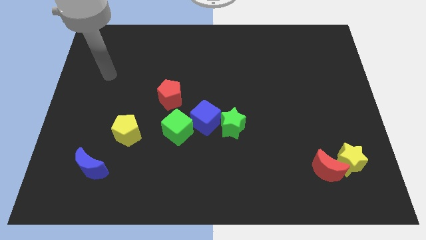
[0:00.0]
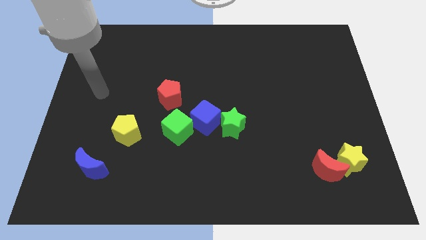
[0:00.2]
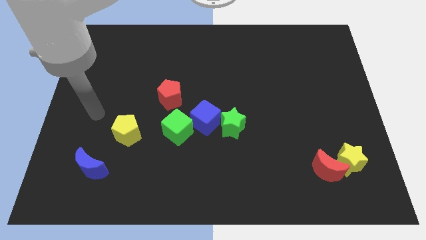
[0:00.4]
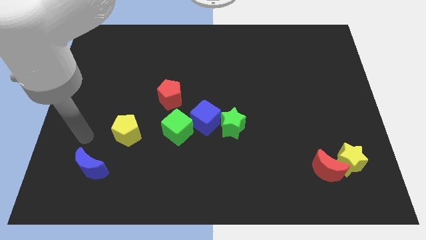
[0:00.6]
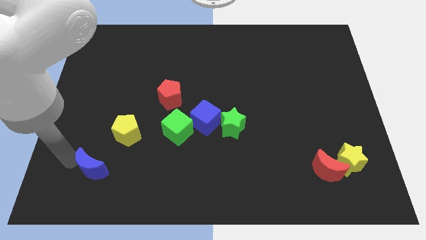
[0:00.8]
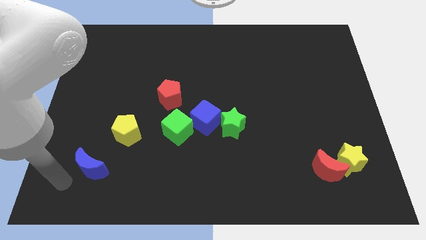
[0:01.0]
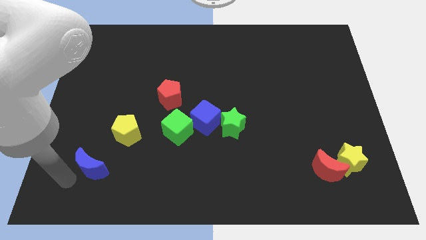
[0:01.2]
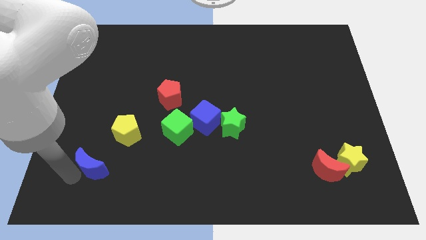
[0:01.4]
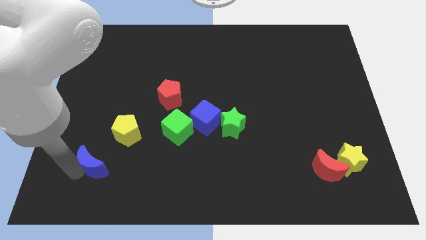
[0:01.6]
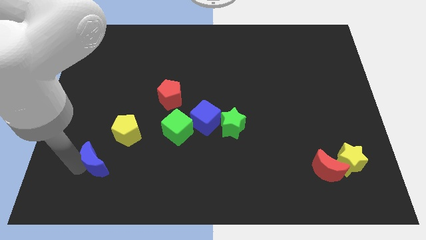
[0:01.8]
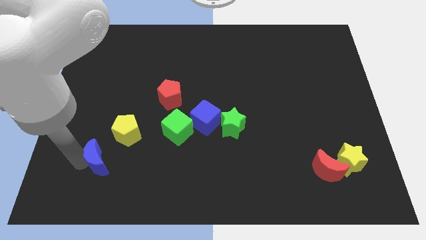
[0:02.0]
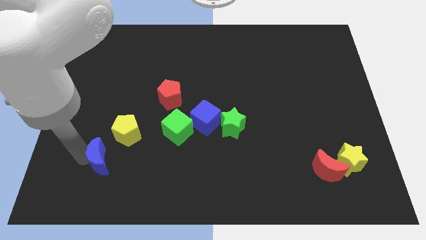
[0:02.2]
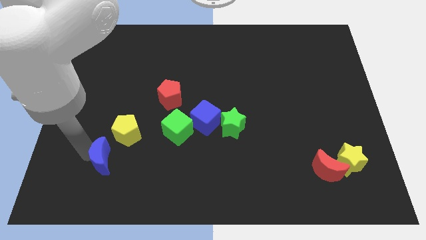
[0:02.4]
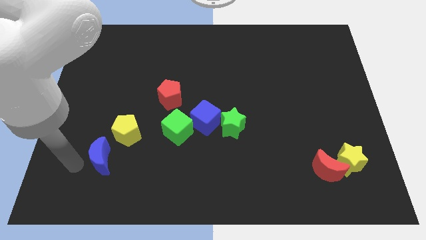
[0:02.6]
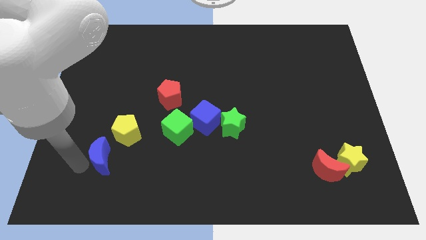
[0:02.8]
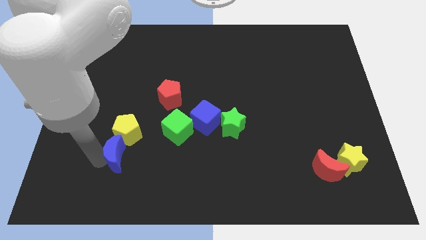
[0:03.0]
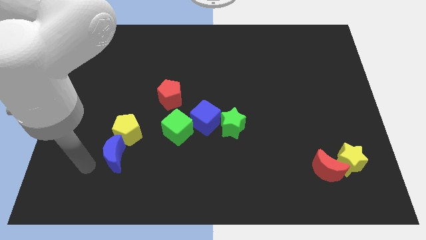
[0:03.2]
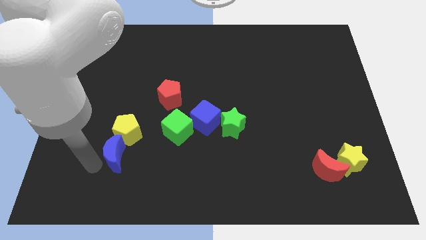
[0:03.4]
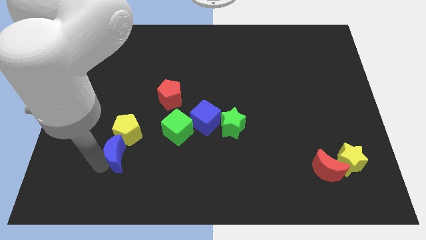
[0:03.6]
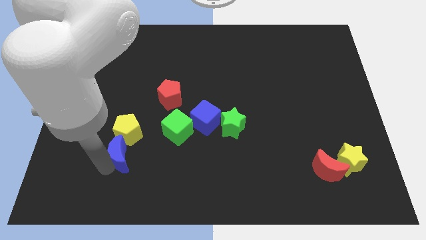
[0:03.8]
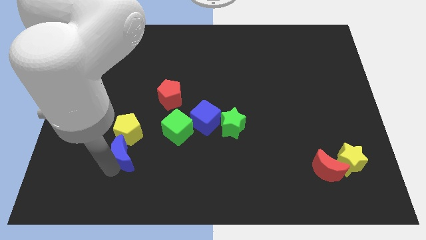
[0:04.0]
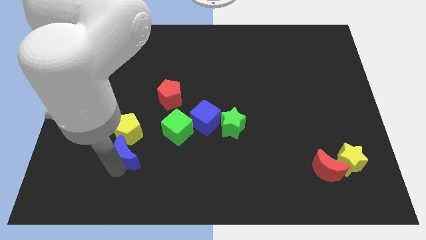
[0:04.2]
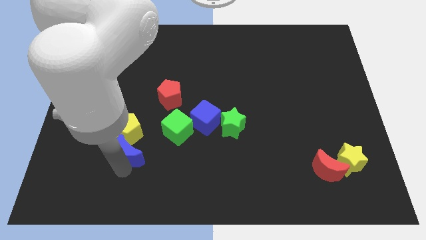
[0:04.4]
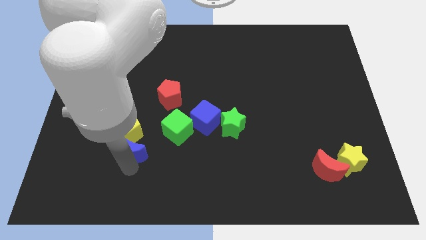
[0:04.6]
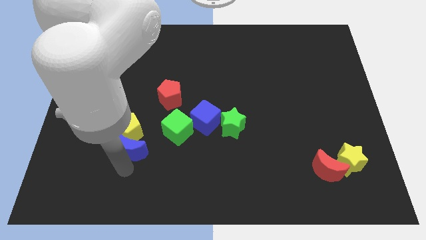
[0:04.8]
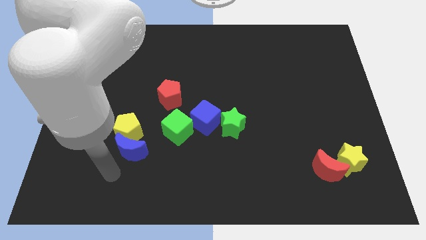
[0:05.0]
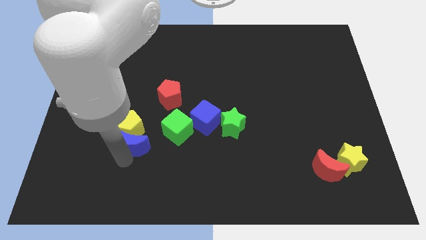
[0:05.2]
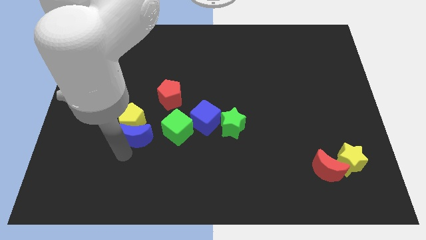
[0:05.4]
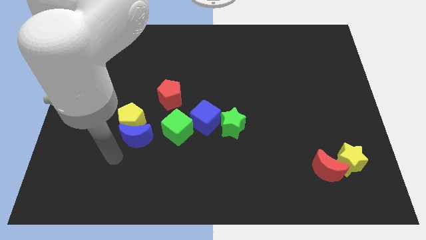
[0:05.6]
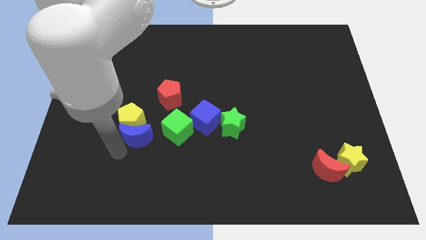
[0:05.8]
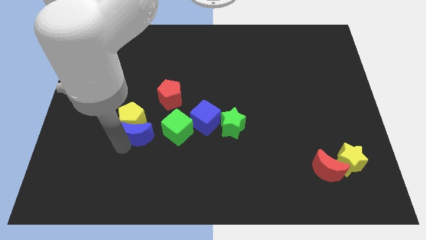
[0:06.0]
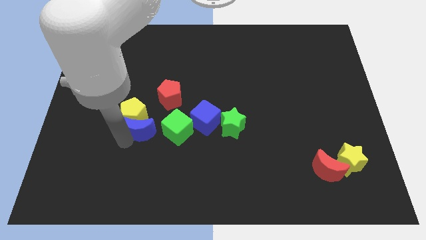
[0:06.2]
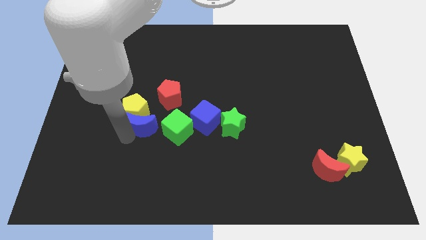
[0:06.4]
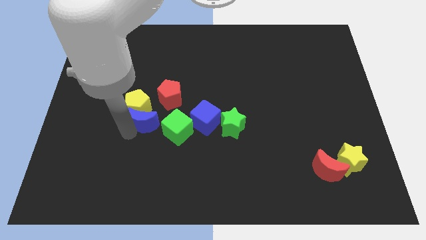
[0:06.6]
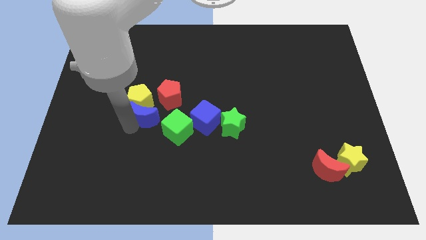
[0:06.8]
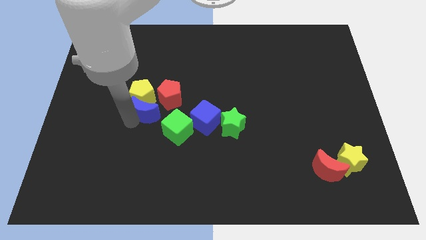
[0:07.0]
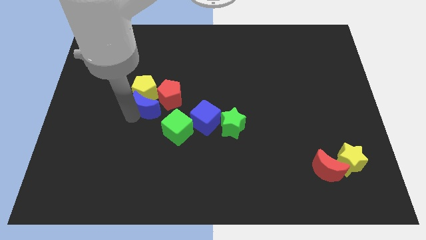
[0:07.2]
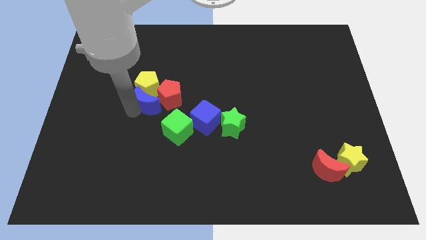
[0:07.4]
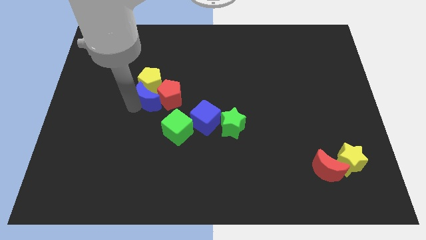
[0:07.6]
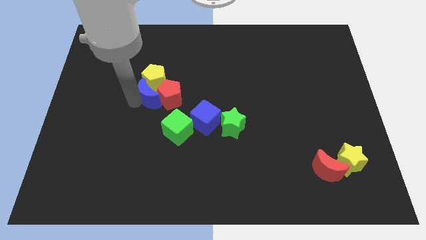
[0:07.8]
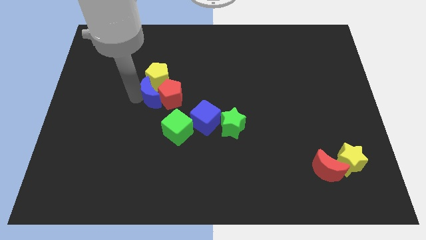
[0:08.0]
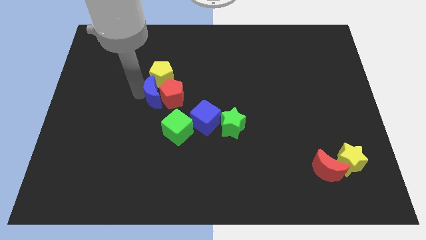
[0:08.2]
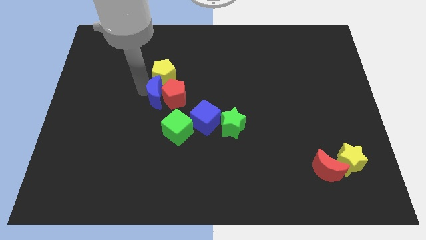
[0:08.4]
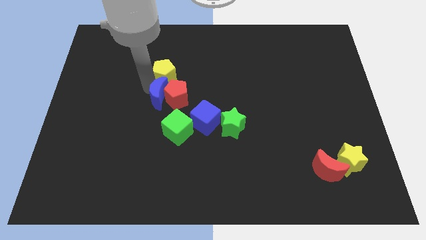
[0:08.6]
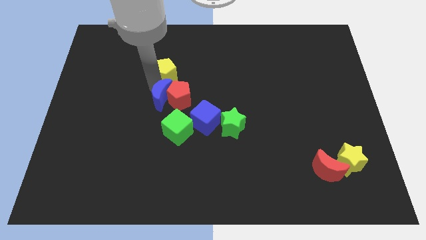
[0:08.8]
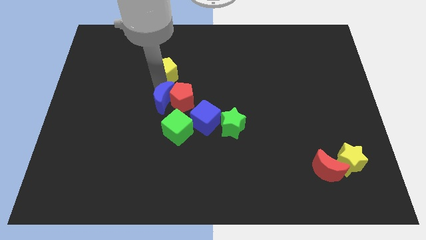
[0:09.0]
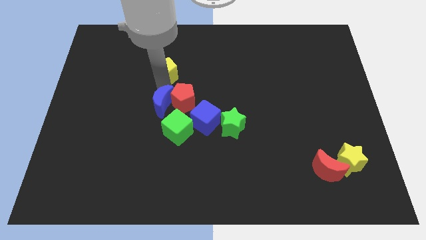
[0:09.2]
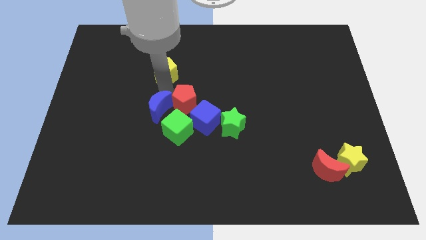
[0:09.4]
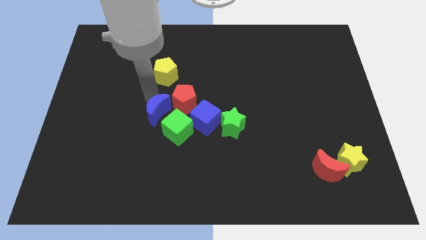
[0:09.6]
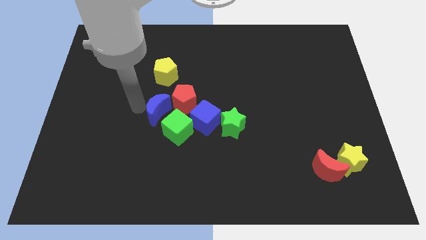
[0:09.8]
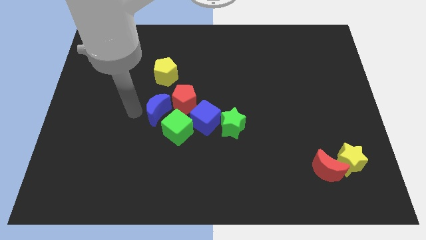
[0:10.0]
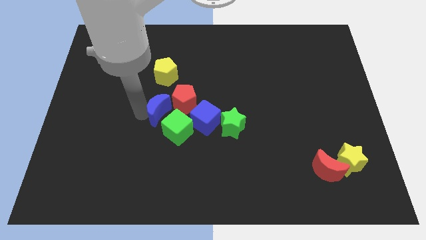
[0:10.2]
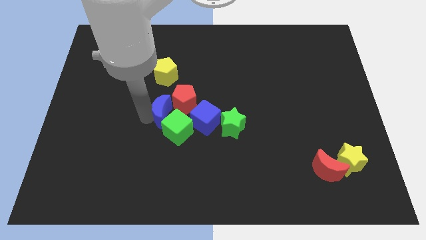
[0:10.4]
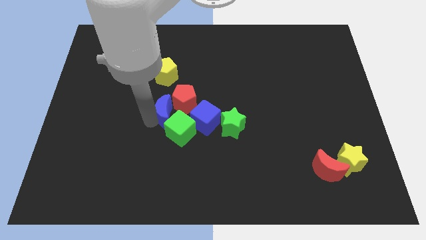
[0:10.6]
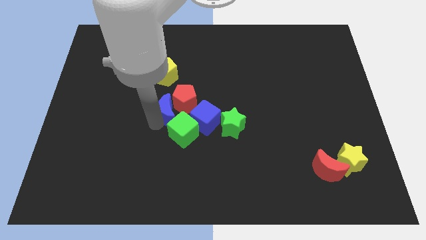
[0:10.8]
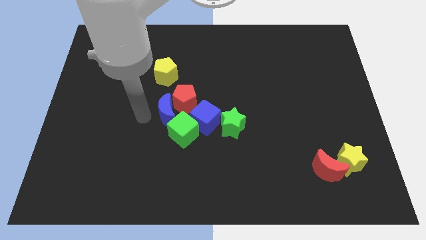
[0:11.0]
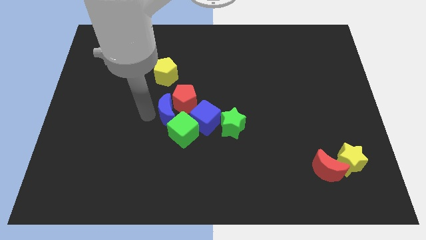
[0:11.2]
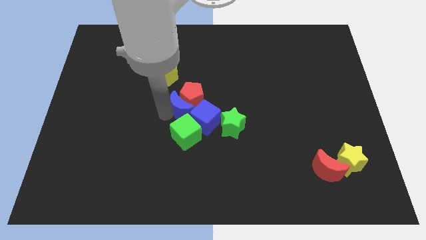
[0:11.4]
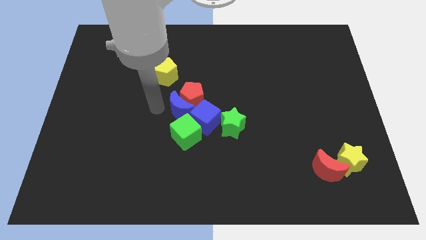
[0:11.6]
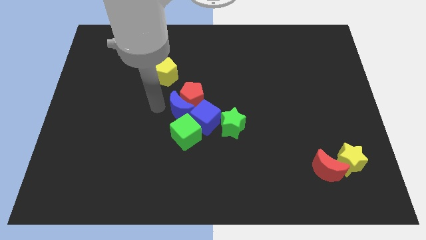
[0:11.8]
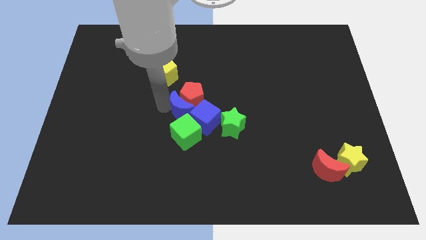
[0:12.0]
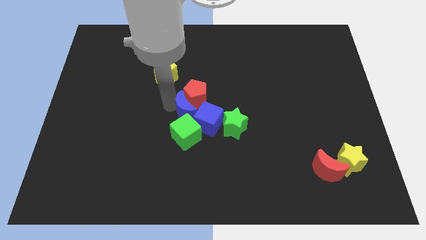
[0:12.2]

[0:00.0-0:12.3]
slide the blue moon to the top right of the green cube

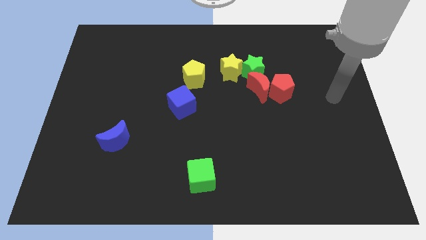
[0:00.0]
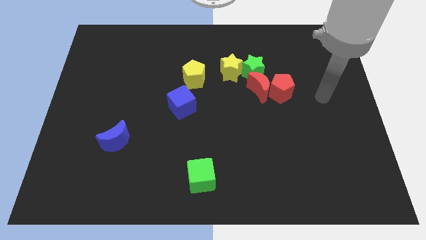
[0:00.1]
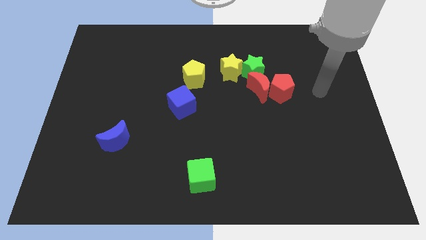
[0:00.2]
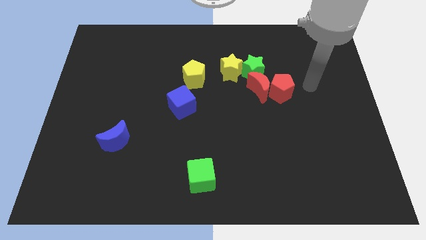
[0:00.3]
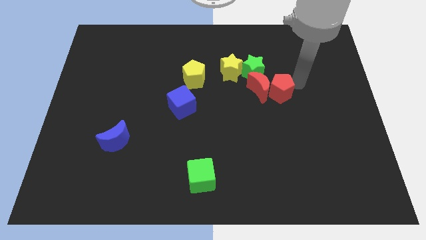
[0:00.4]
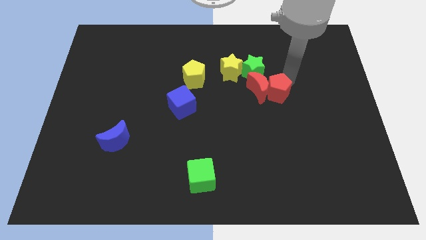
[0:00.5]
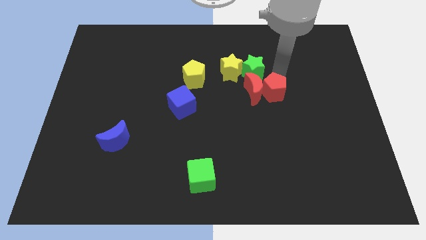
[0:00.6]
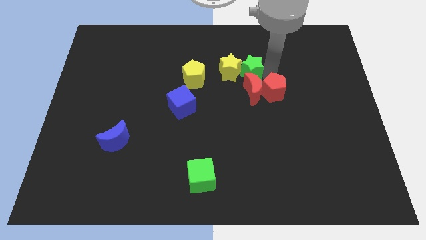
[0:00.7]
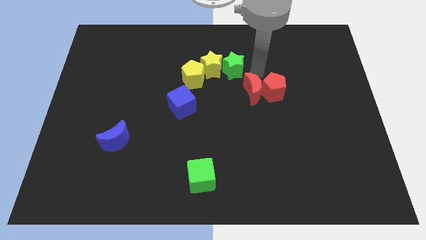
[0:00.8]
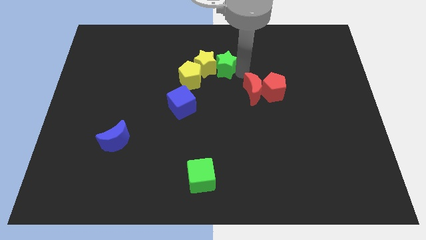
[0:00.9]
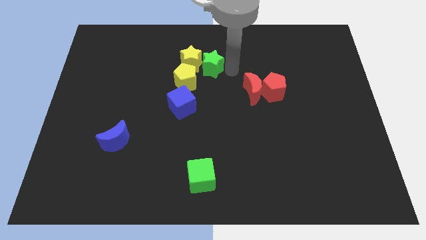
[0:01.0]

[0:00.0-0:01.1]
slide the yellow star above the blue cube
